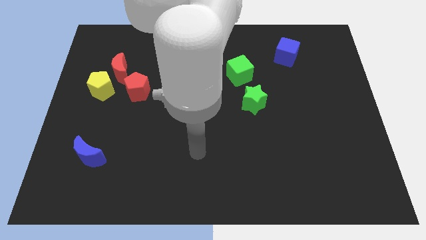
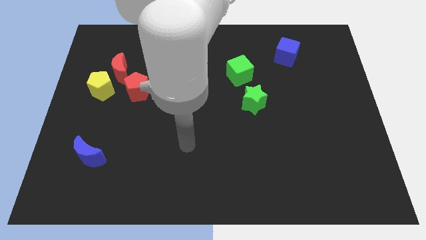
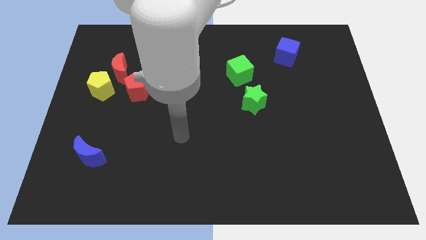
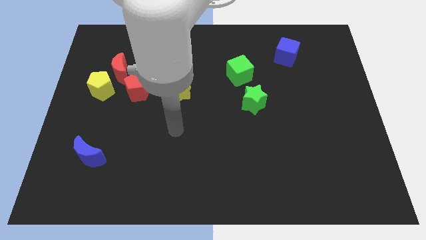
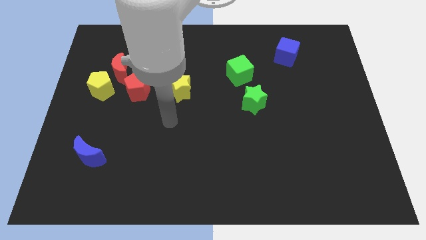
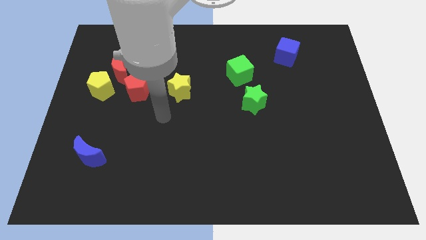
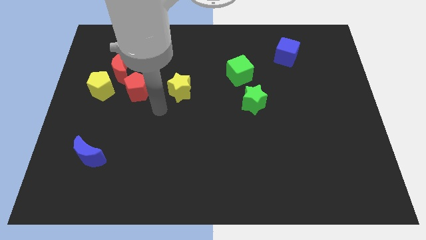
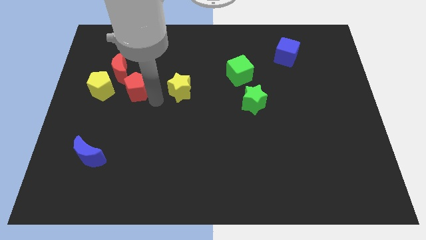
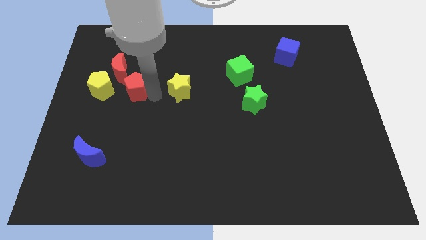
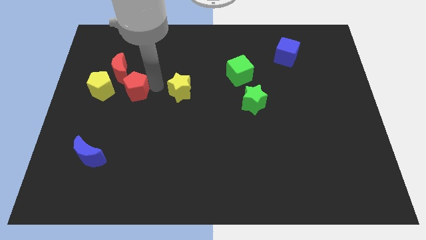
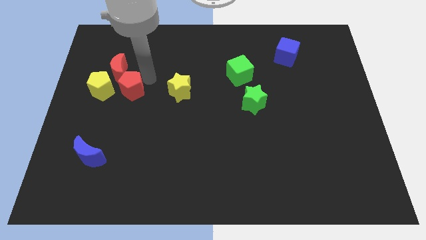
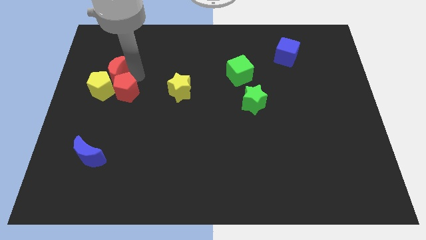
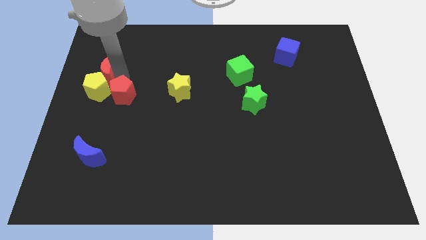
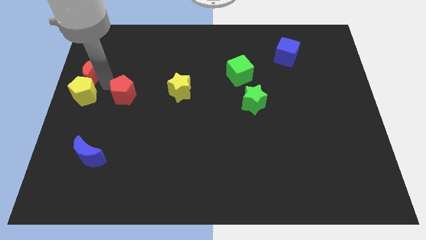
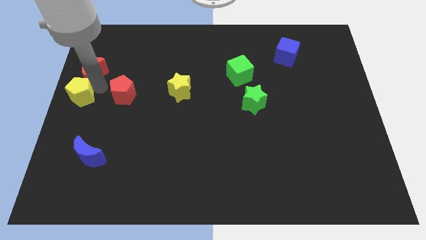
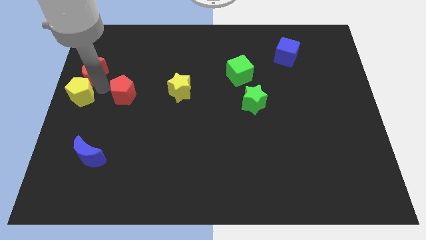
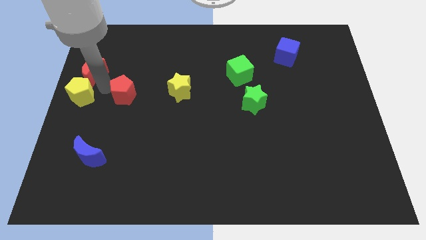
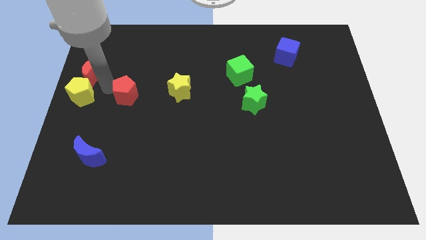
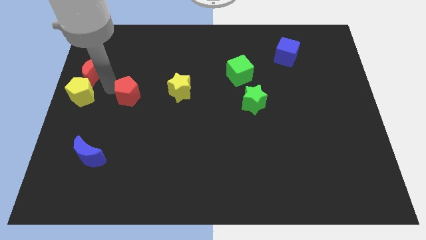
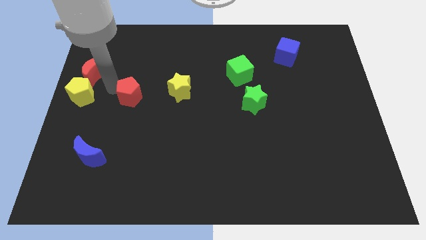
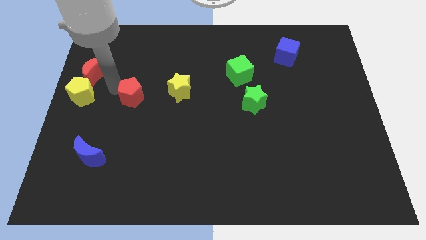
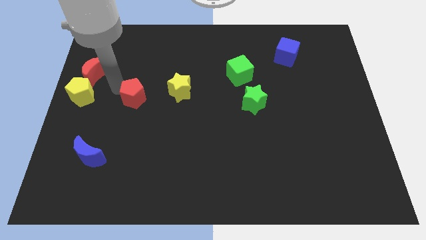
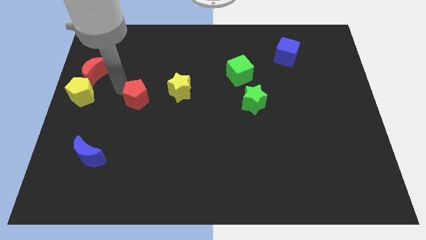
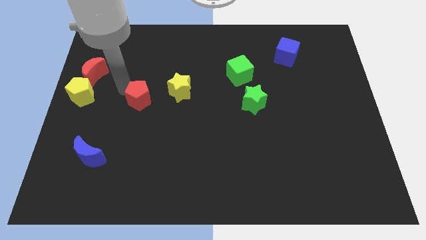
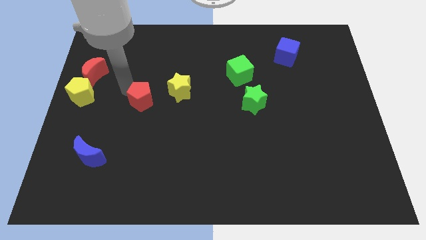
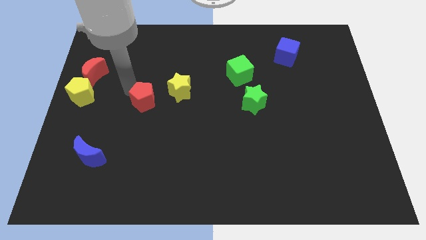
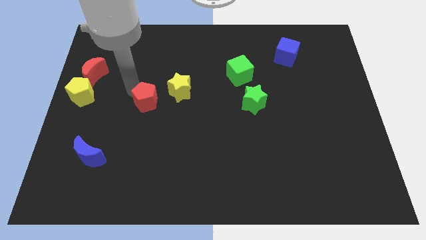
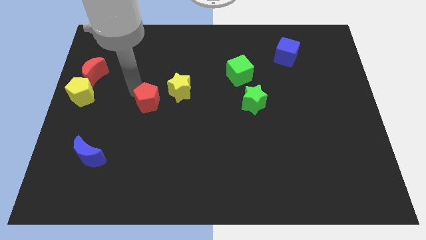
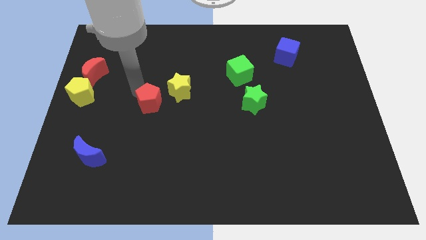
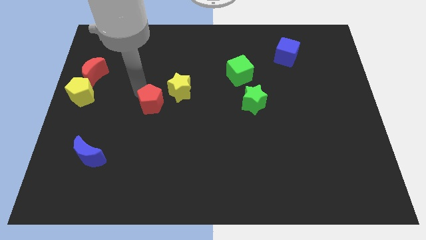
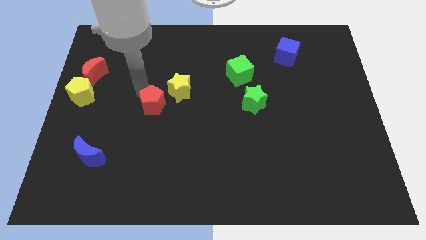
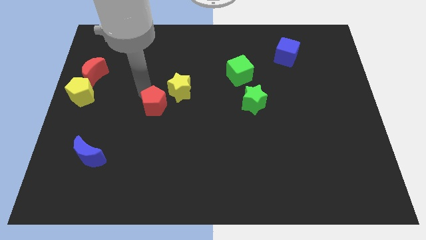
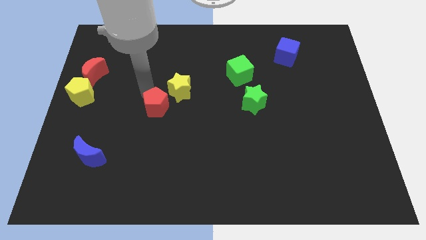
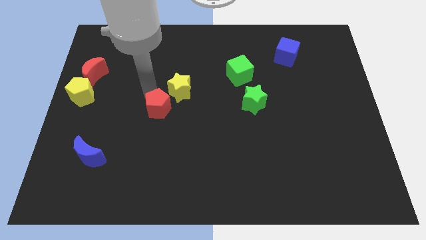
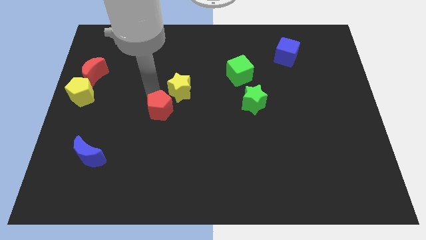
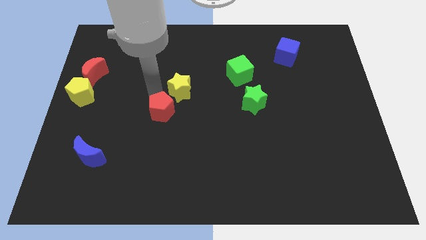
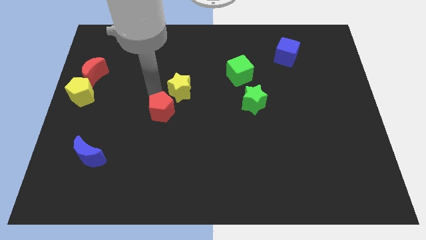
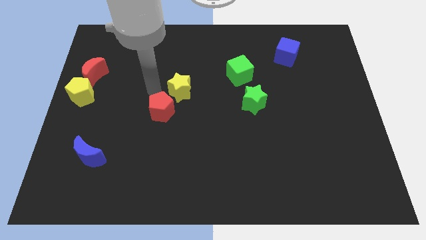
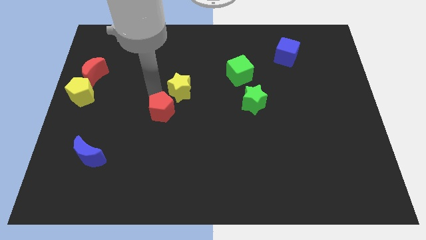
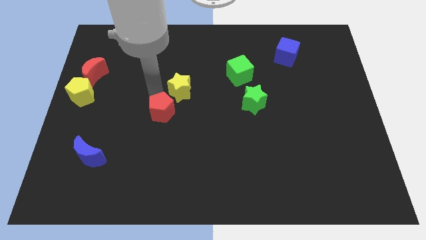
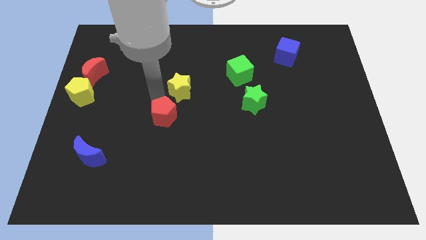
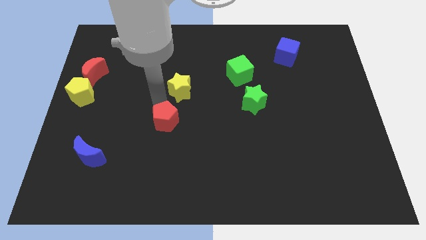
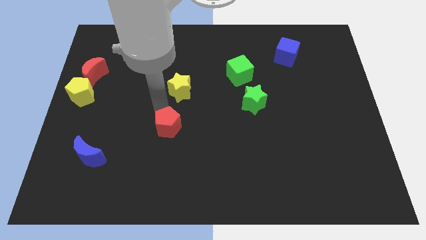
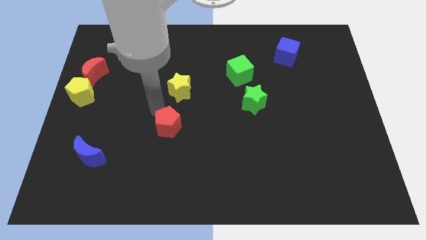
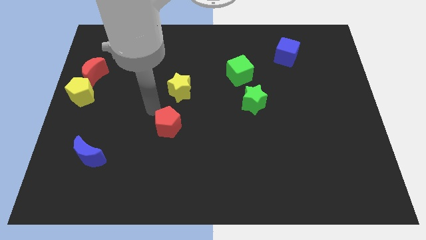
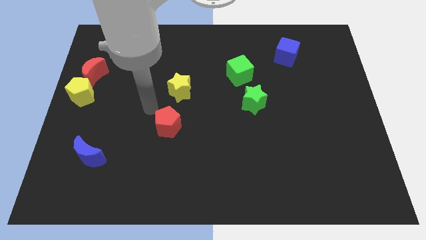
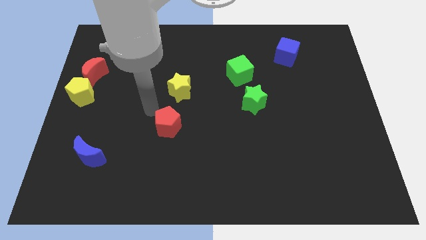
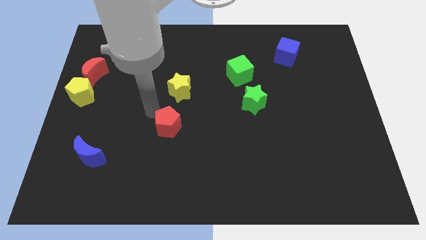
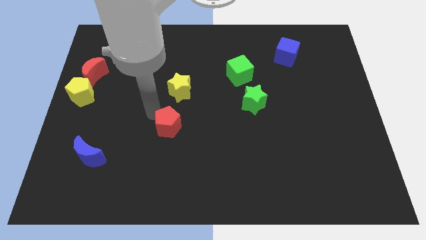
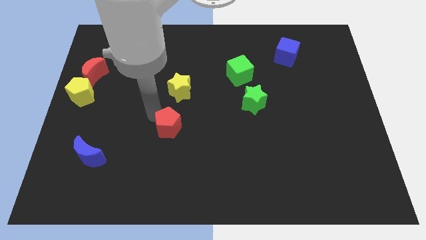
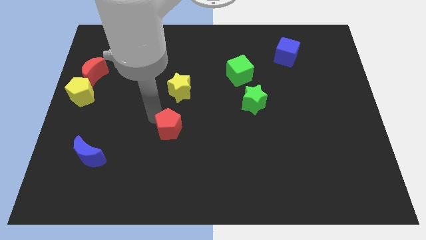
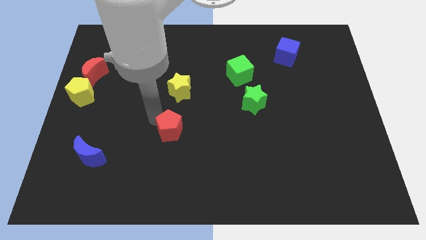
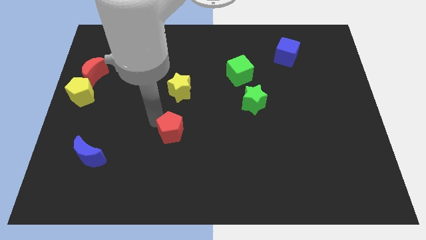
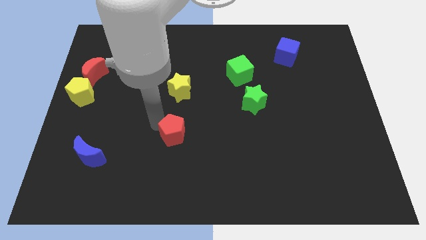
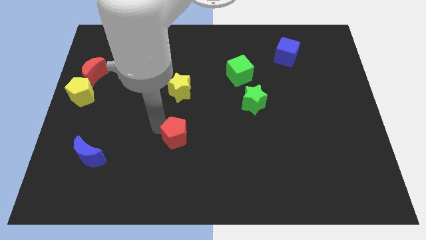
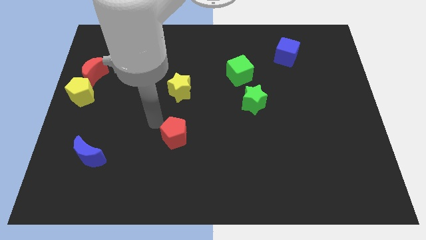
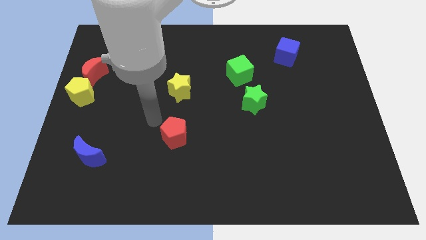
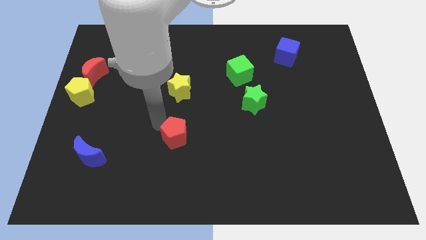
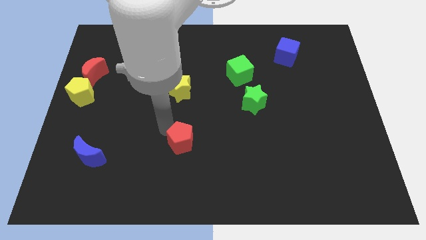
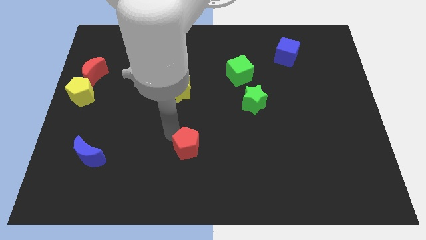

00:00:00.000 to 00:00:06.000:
move the red pentagon downwards and then right

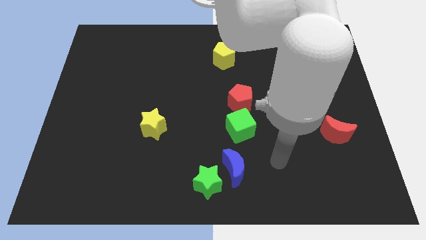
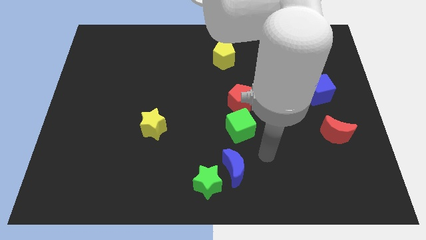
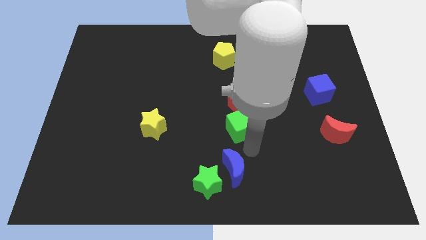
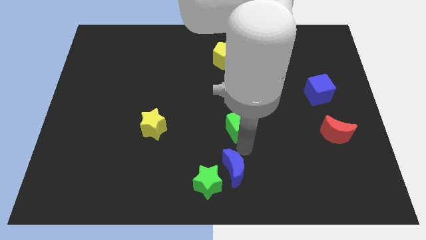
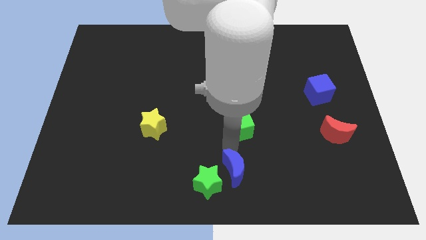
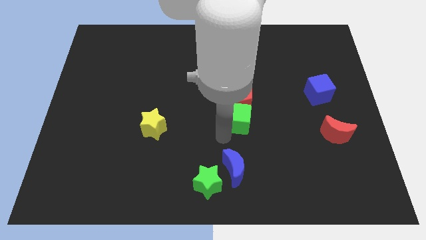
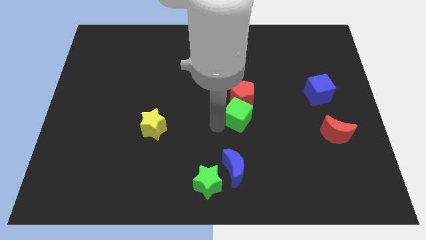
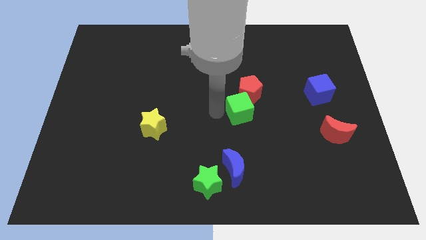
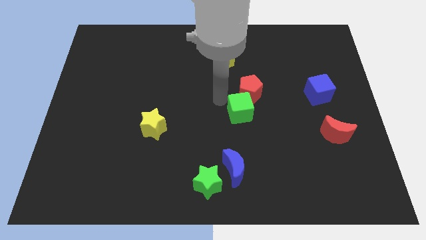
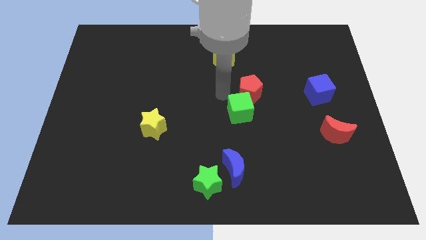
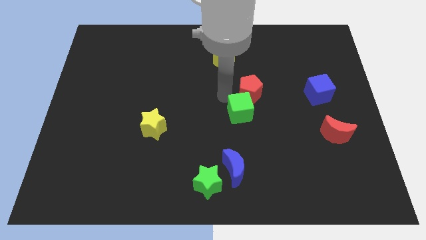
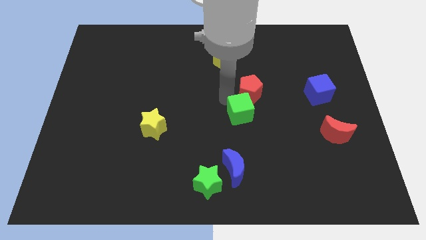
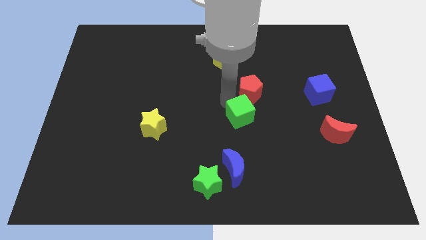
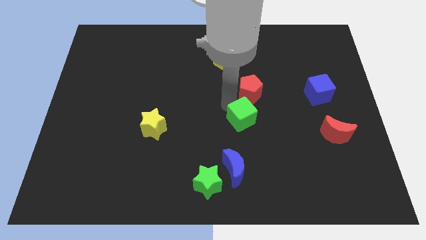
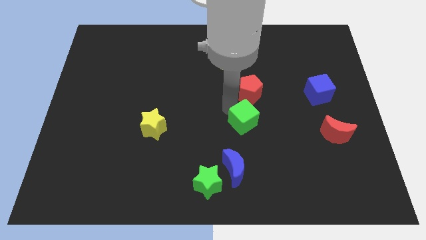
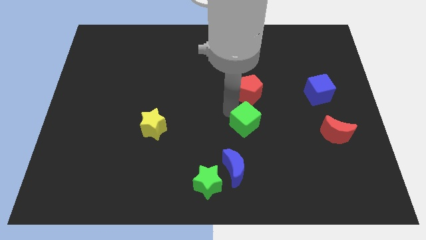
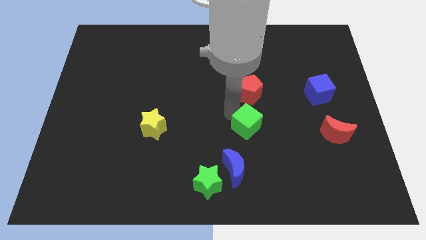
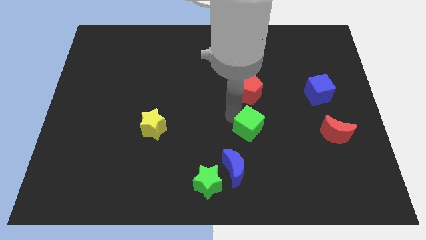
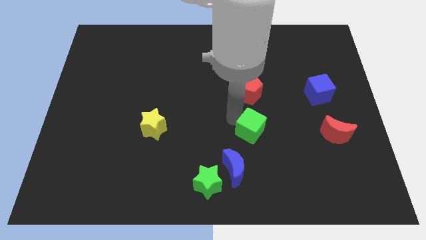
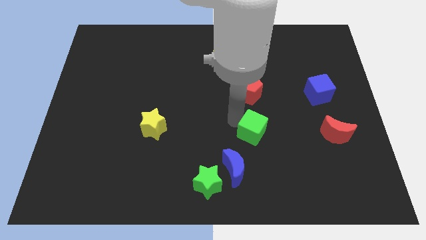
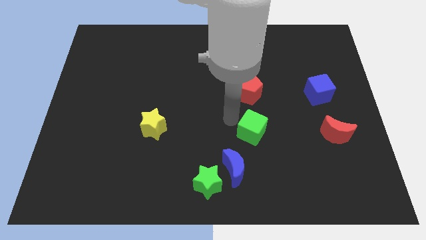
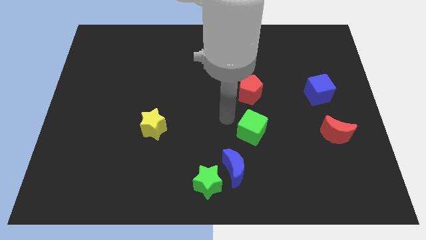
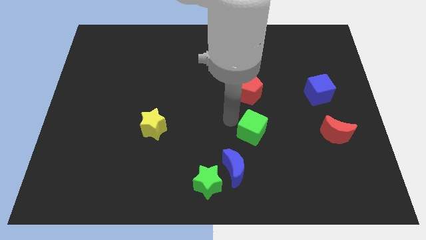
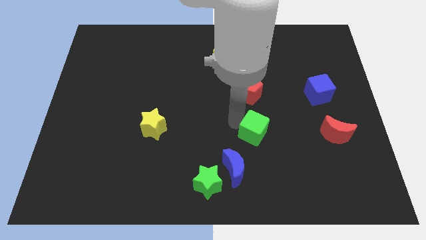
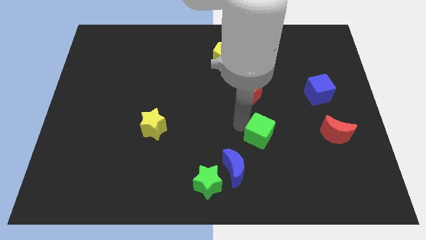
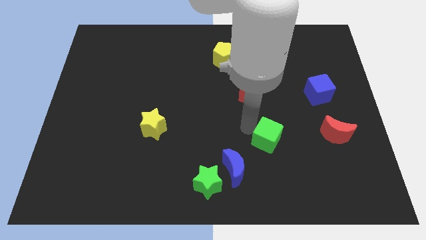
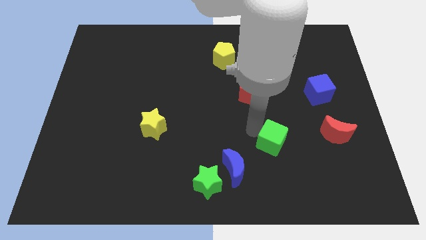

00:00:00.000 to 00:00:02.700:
slightly slide the green cube downwards and right
